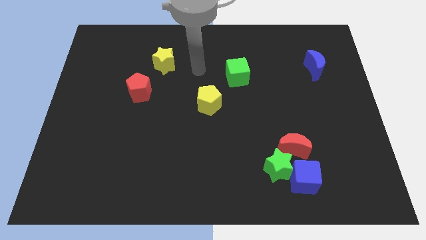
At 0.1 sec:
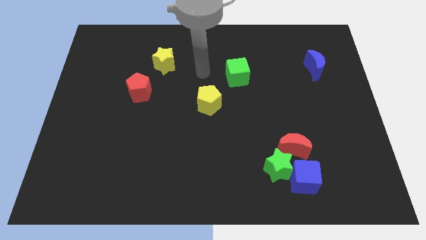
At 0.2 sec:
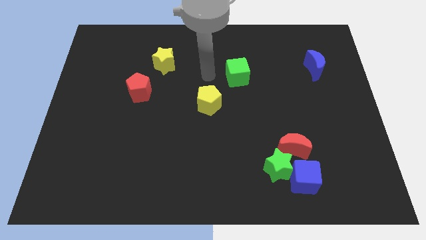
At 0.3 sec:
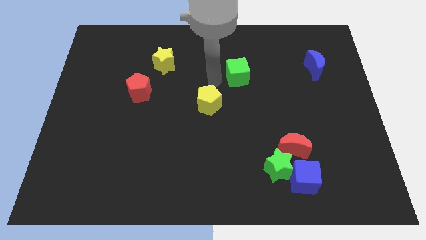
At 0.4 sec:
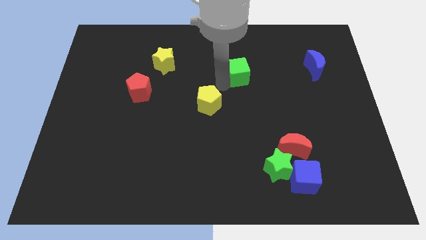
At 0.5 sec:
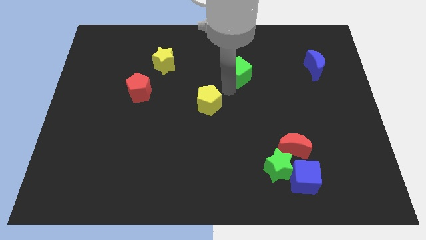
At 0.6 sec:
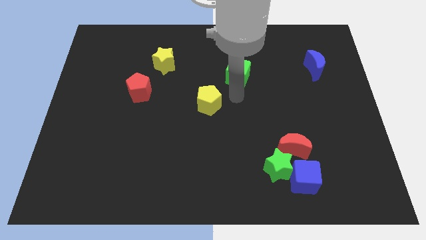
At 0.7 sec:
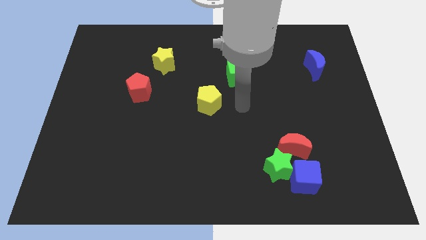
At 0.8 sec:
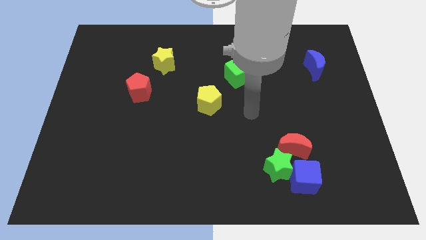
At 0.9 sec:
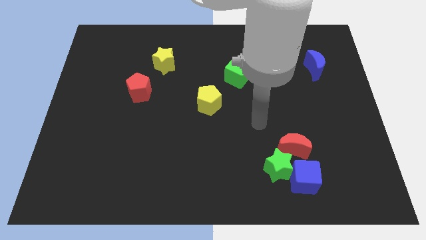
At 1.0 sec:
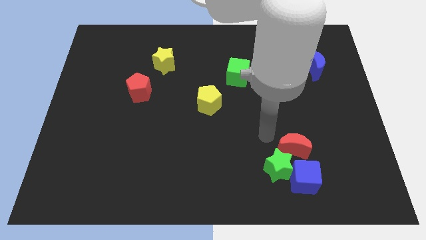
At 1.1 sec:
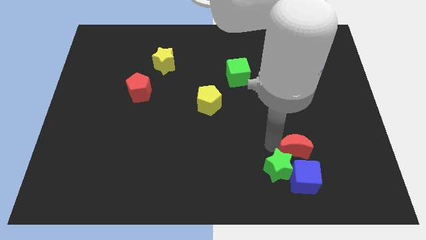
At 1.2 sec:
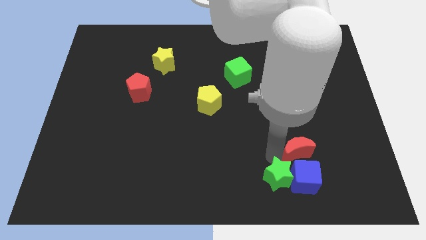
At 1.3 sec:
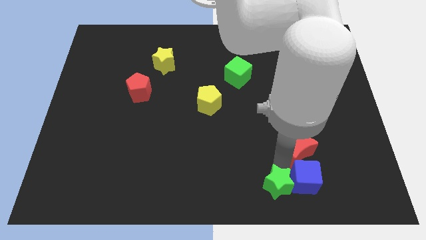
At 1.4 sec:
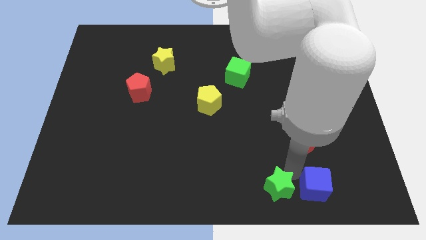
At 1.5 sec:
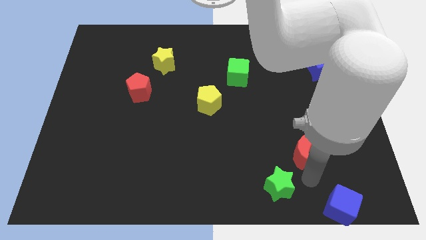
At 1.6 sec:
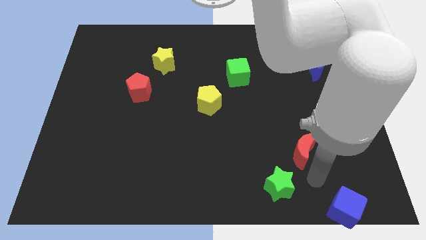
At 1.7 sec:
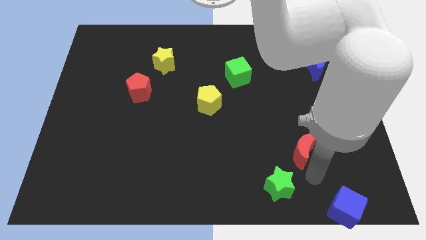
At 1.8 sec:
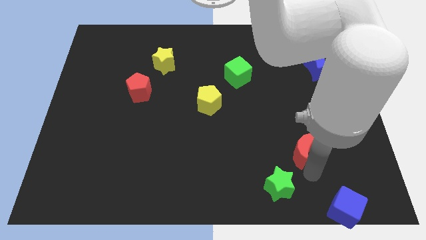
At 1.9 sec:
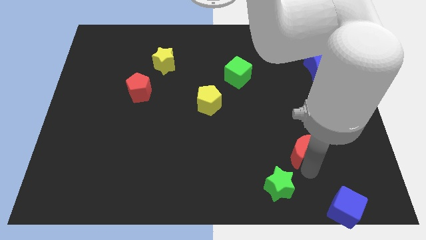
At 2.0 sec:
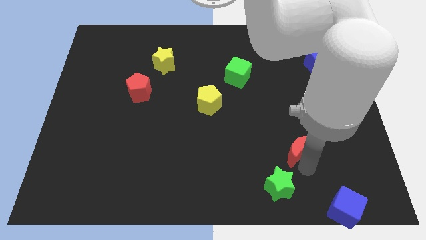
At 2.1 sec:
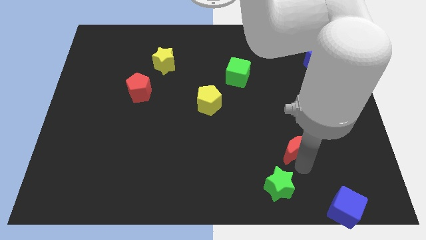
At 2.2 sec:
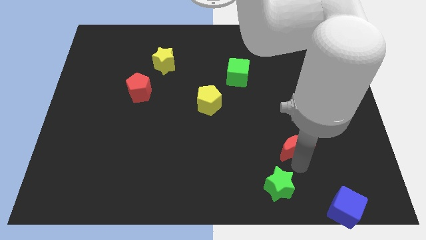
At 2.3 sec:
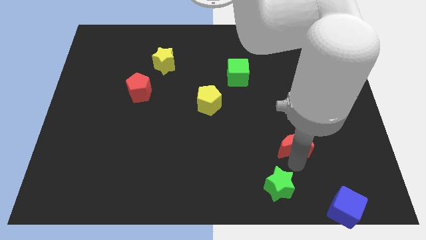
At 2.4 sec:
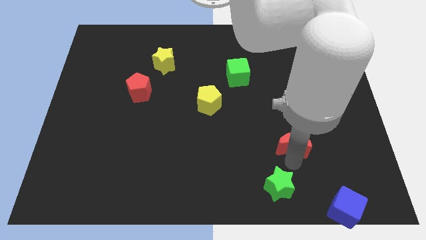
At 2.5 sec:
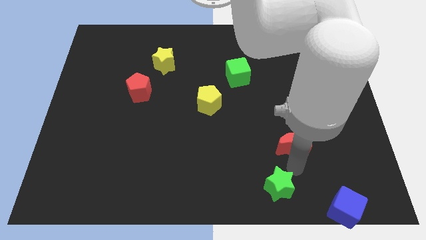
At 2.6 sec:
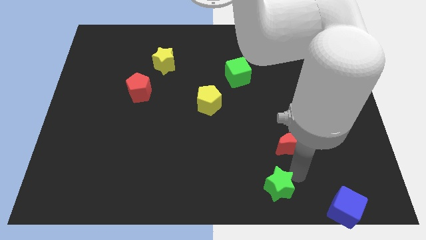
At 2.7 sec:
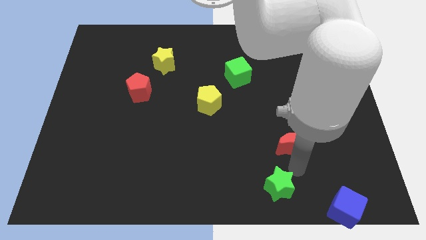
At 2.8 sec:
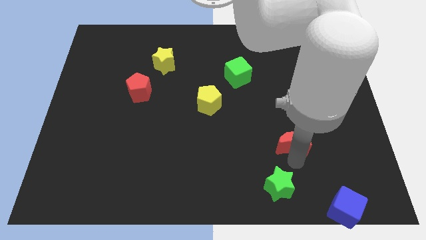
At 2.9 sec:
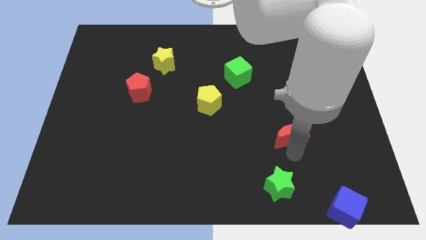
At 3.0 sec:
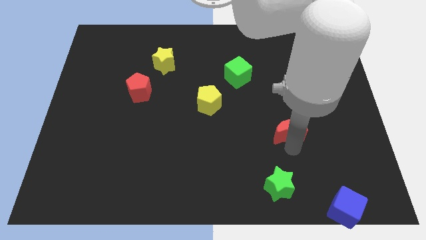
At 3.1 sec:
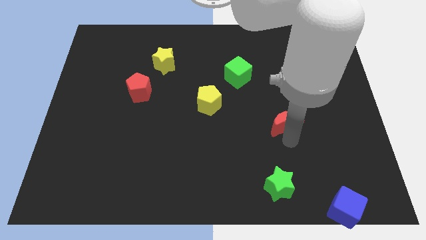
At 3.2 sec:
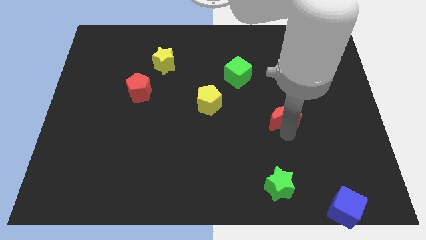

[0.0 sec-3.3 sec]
move the red moon a little up

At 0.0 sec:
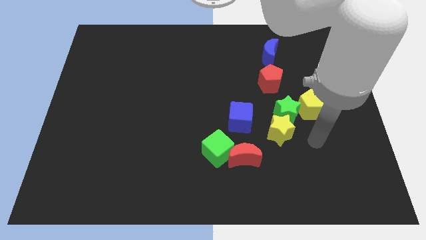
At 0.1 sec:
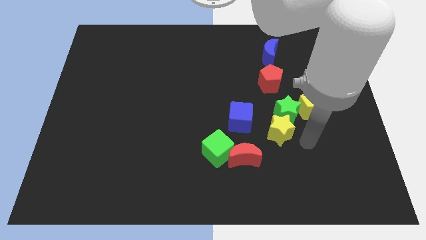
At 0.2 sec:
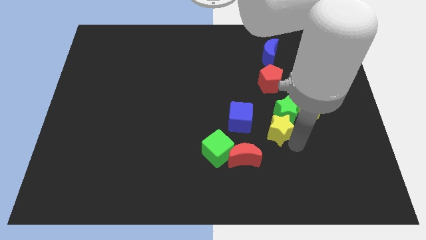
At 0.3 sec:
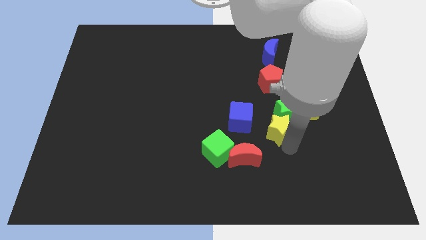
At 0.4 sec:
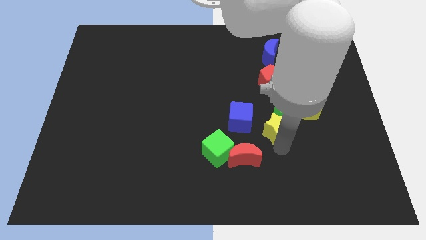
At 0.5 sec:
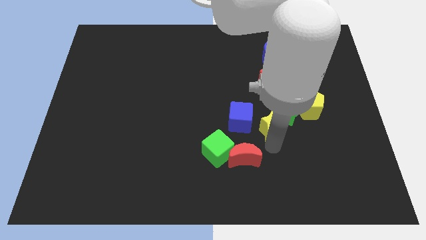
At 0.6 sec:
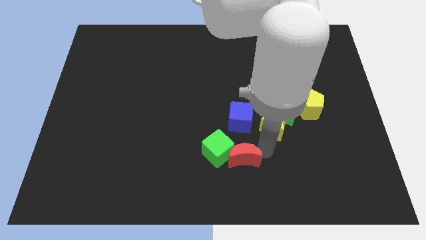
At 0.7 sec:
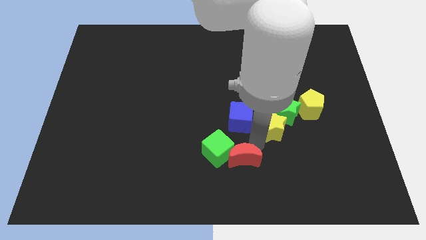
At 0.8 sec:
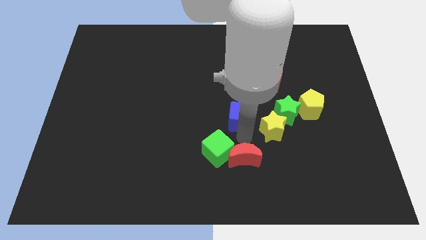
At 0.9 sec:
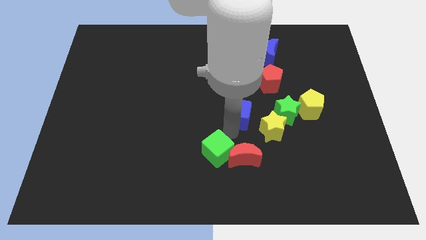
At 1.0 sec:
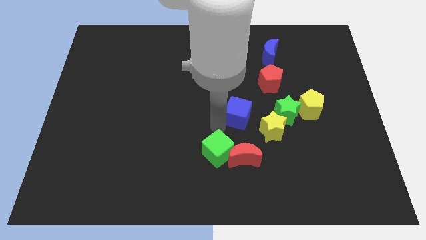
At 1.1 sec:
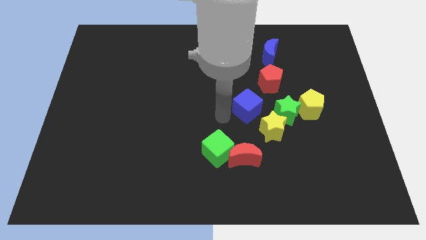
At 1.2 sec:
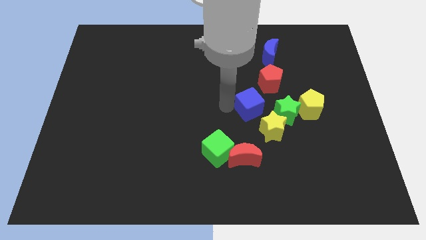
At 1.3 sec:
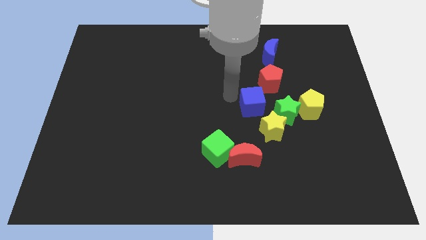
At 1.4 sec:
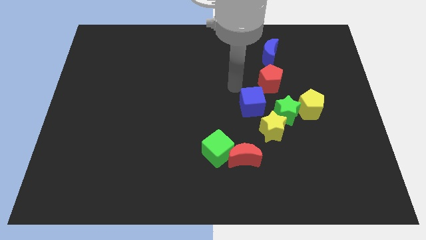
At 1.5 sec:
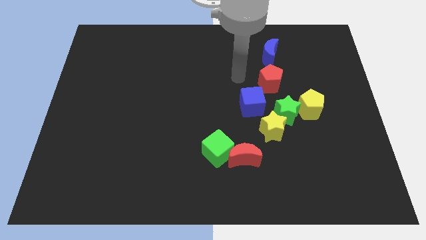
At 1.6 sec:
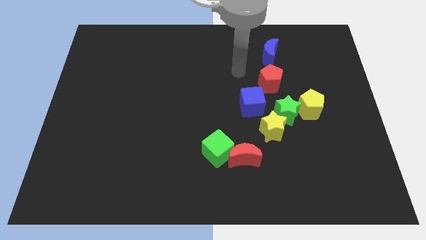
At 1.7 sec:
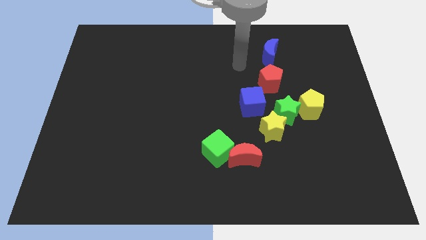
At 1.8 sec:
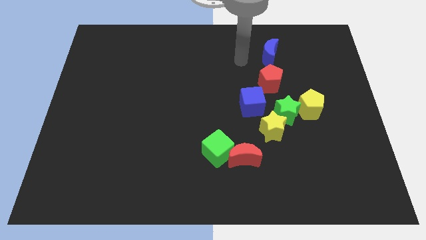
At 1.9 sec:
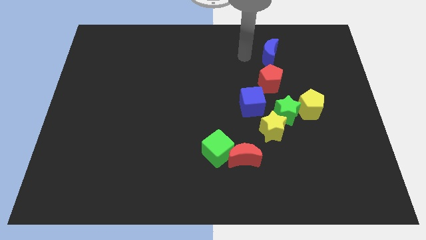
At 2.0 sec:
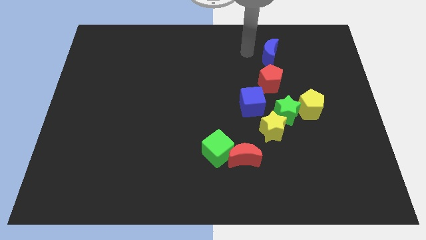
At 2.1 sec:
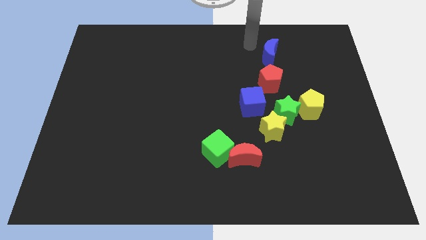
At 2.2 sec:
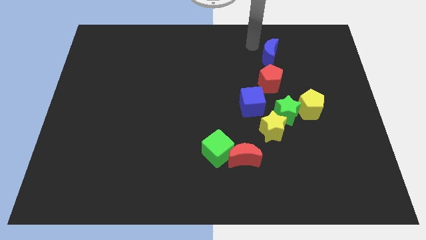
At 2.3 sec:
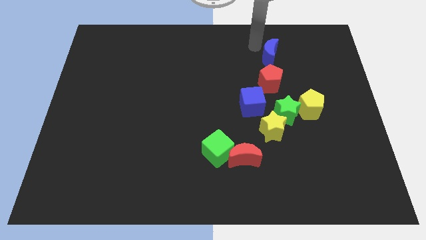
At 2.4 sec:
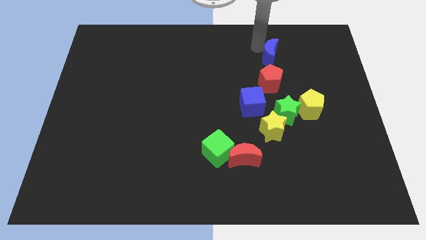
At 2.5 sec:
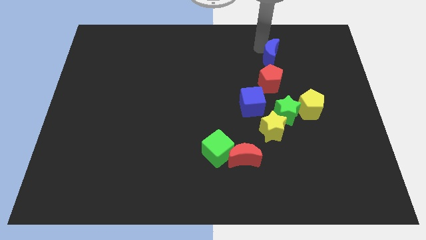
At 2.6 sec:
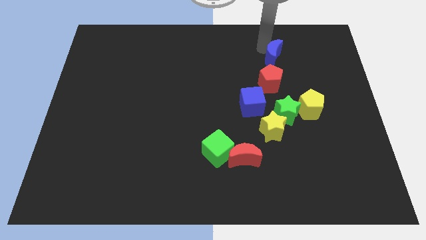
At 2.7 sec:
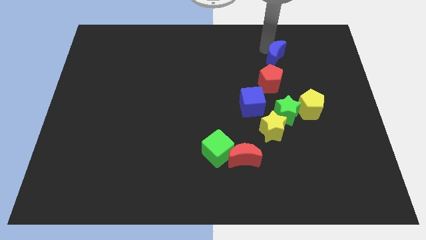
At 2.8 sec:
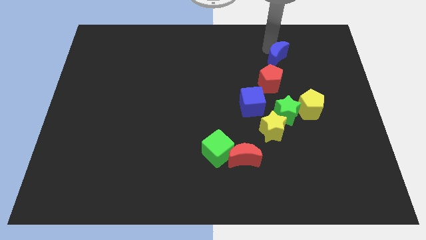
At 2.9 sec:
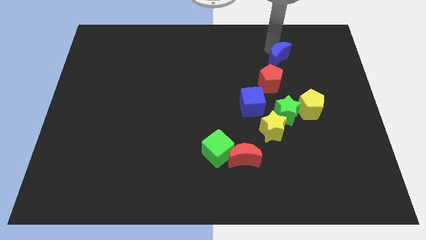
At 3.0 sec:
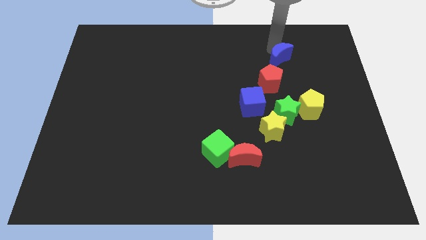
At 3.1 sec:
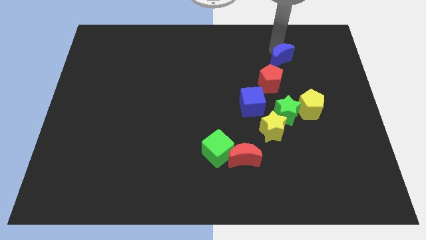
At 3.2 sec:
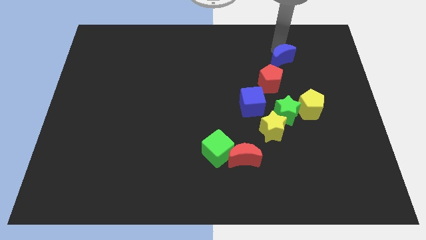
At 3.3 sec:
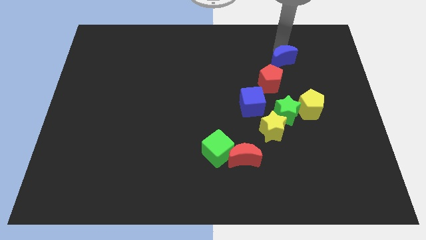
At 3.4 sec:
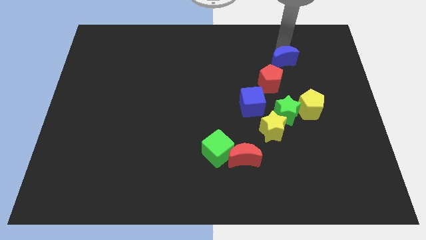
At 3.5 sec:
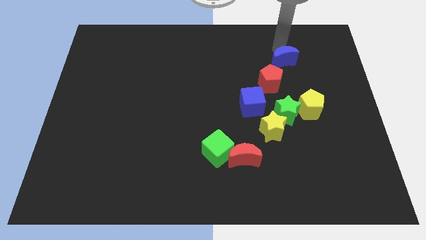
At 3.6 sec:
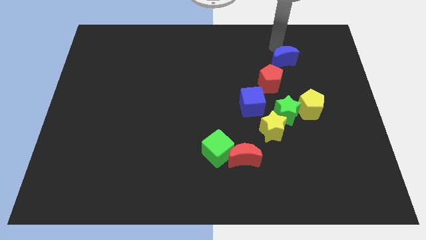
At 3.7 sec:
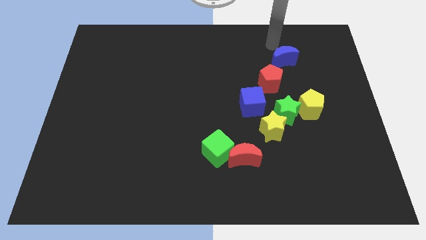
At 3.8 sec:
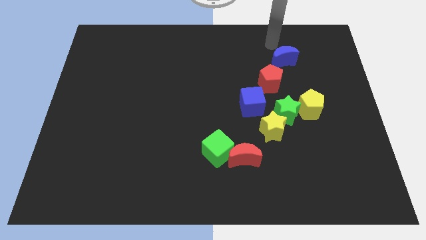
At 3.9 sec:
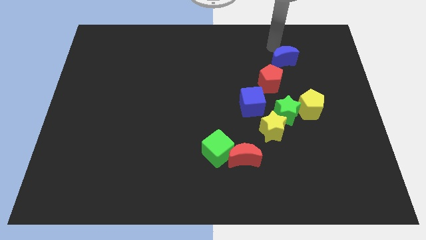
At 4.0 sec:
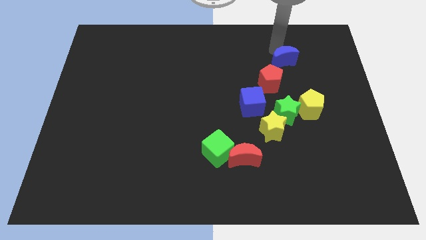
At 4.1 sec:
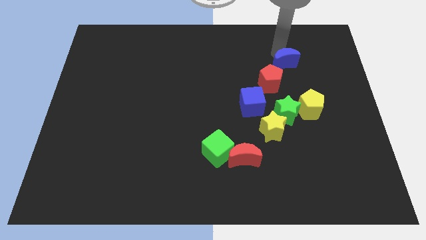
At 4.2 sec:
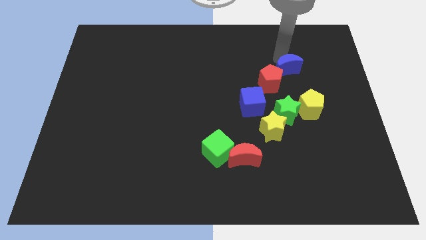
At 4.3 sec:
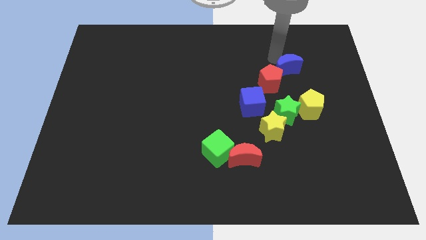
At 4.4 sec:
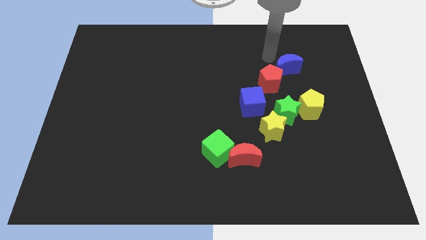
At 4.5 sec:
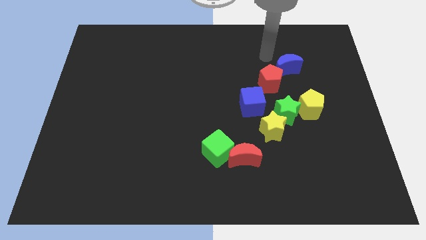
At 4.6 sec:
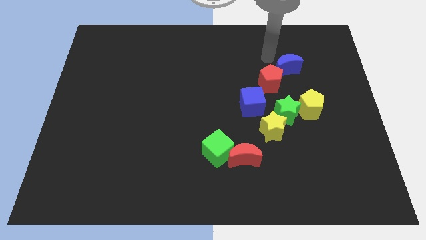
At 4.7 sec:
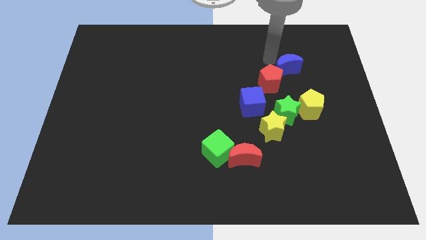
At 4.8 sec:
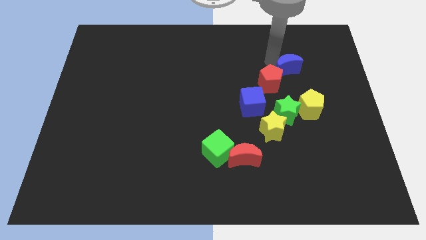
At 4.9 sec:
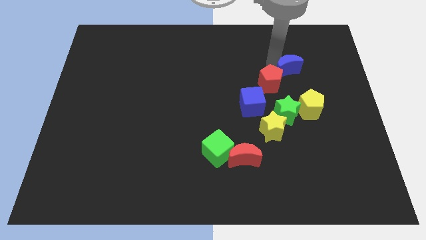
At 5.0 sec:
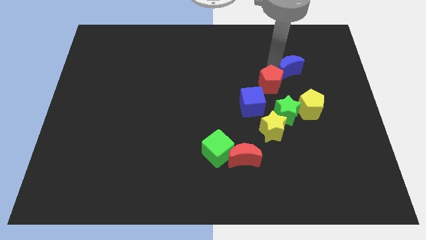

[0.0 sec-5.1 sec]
push the blue moon a little bit diagonally downwards and right

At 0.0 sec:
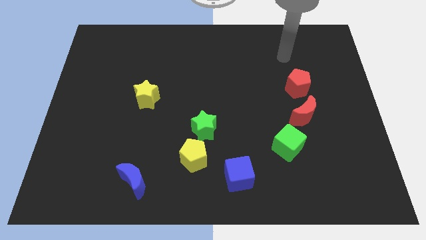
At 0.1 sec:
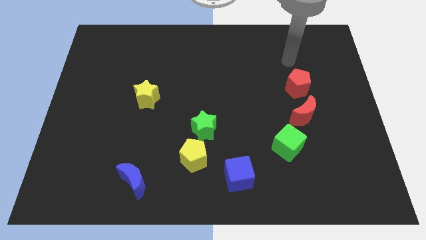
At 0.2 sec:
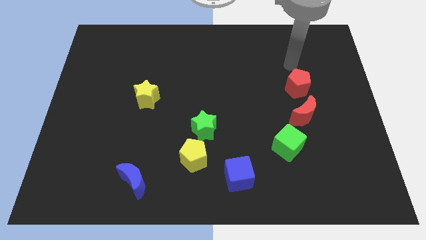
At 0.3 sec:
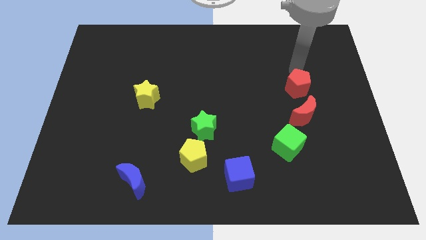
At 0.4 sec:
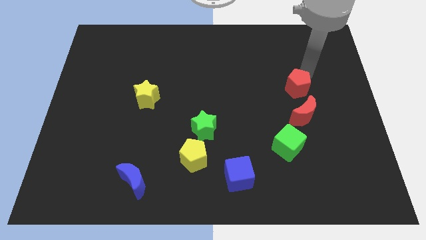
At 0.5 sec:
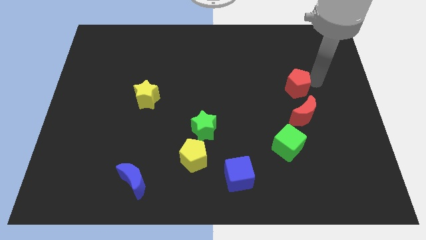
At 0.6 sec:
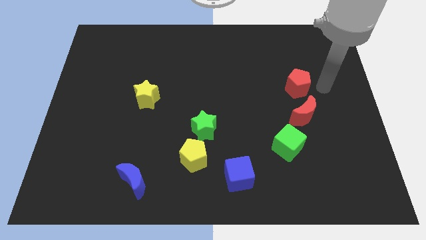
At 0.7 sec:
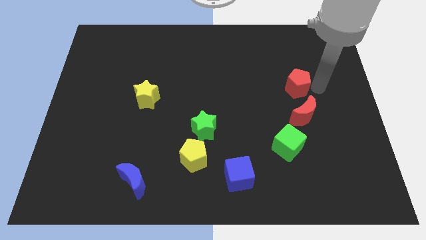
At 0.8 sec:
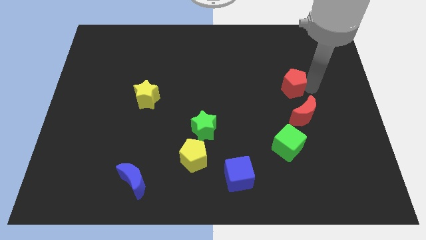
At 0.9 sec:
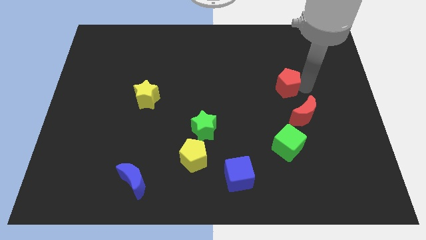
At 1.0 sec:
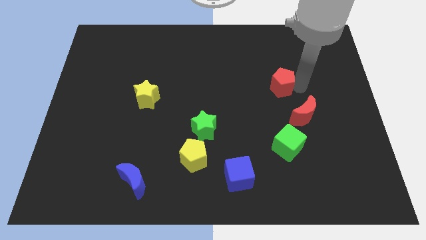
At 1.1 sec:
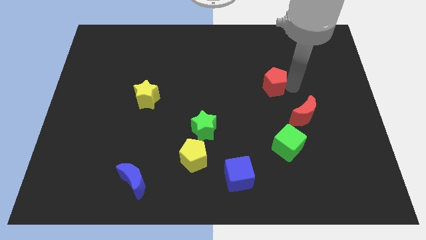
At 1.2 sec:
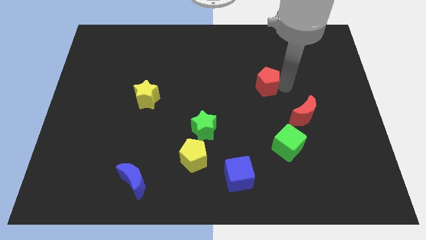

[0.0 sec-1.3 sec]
push the red pentagon to the left a little bit
